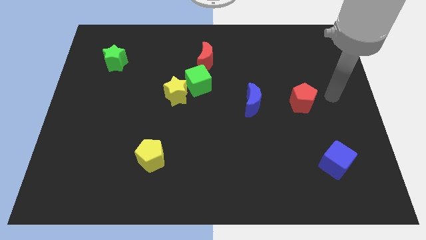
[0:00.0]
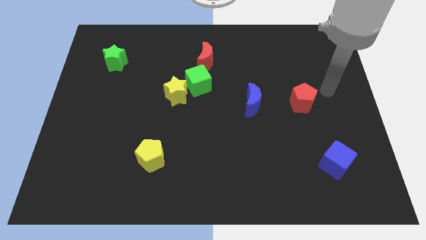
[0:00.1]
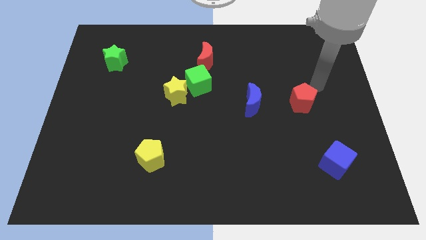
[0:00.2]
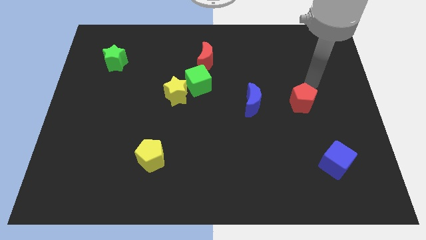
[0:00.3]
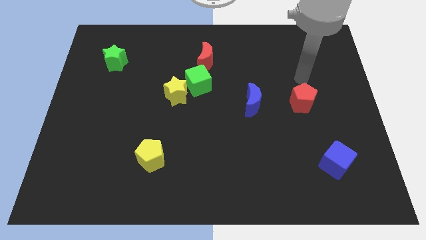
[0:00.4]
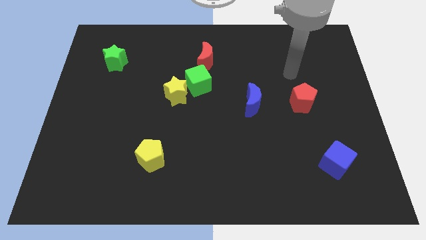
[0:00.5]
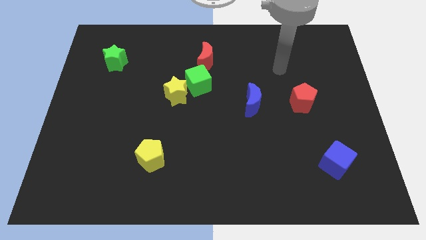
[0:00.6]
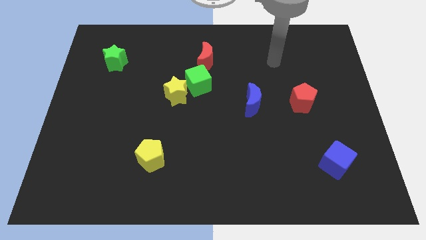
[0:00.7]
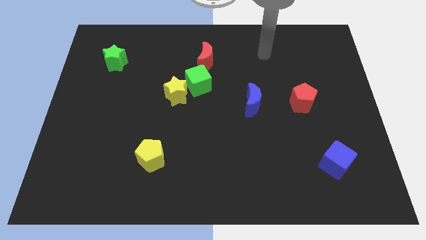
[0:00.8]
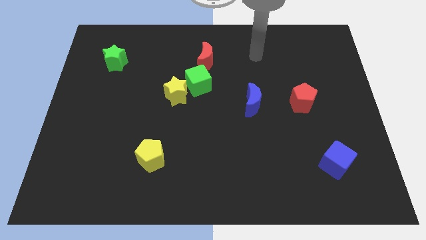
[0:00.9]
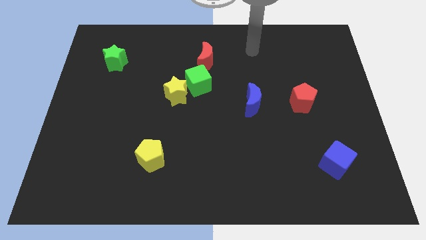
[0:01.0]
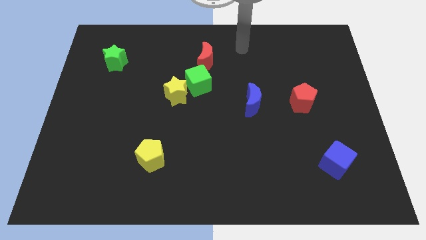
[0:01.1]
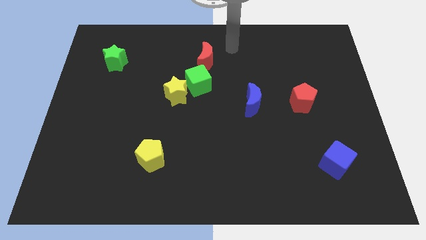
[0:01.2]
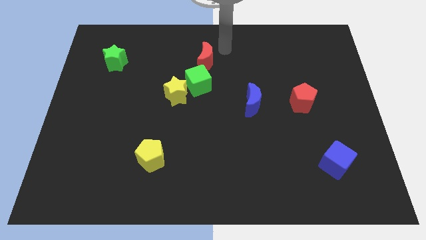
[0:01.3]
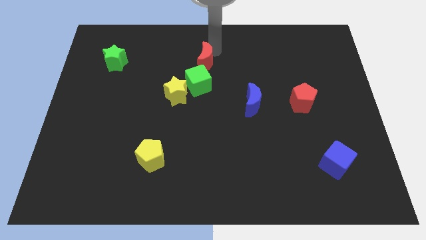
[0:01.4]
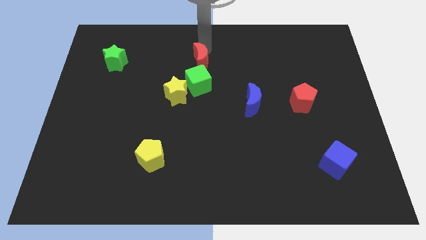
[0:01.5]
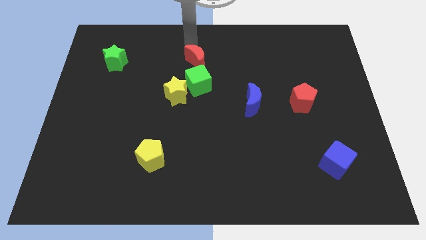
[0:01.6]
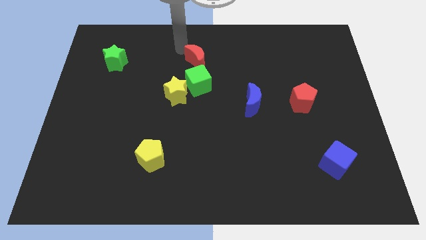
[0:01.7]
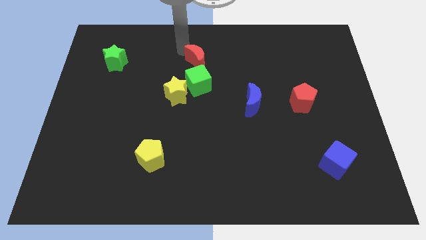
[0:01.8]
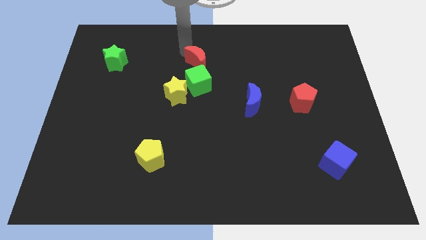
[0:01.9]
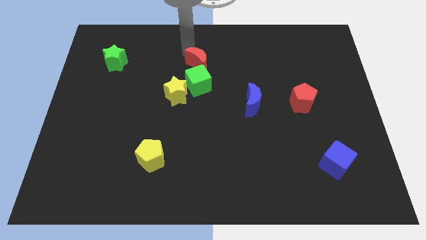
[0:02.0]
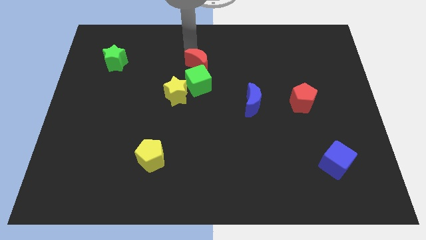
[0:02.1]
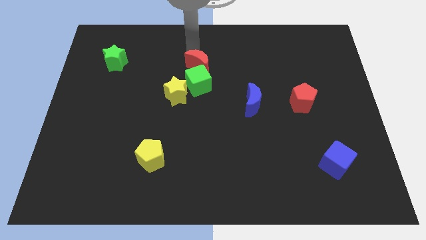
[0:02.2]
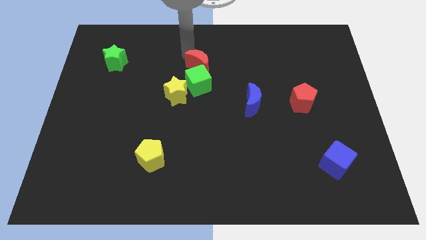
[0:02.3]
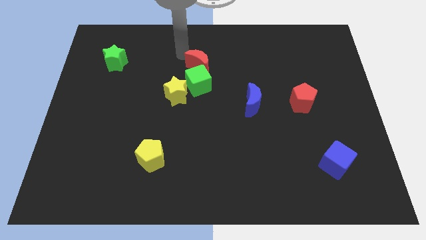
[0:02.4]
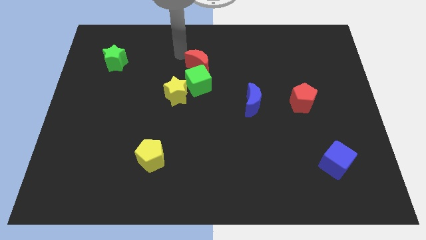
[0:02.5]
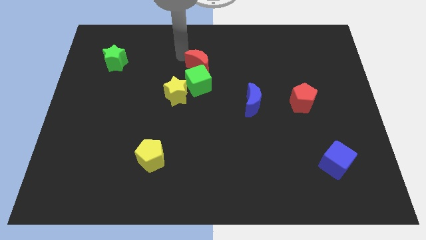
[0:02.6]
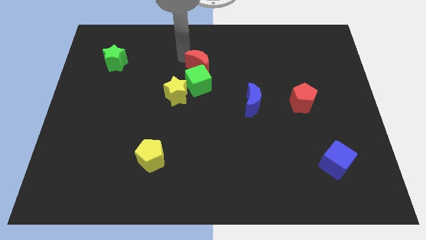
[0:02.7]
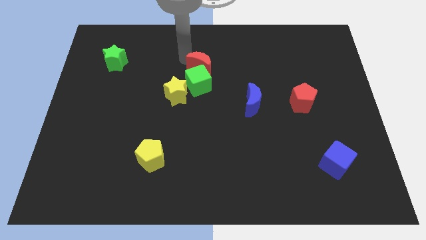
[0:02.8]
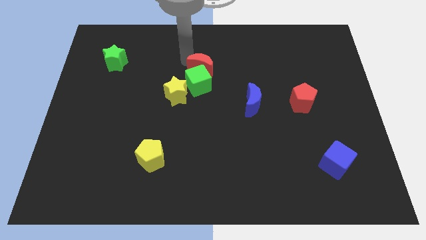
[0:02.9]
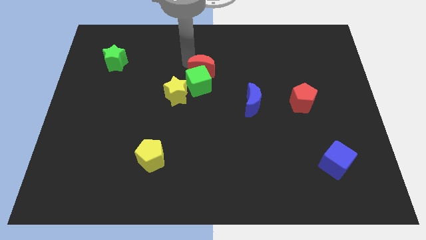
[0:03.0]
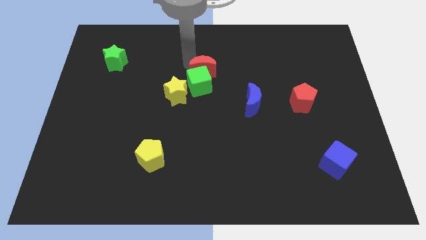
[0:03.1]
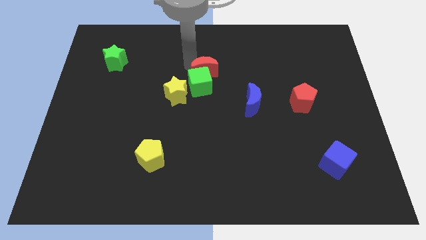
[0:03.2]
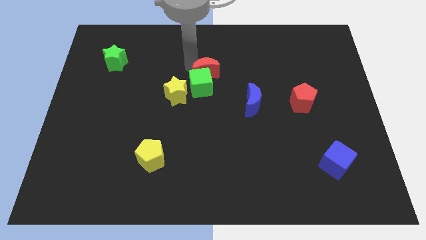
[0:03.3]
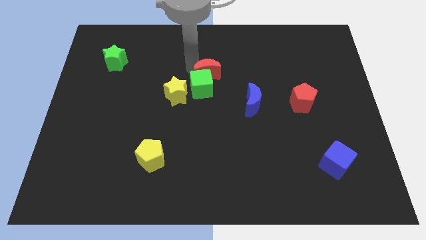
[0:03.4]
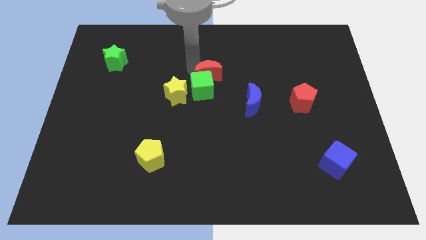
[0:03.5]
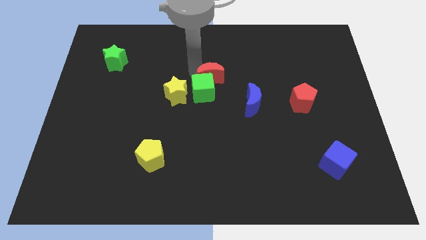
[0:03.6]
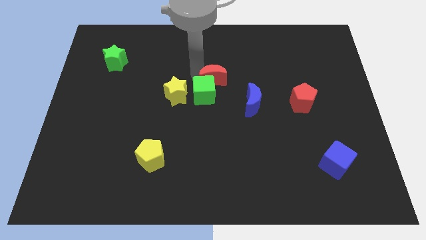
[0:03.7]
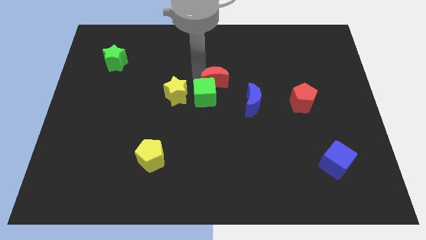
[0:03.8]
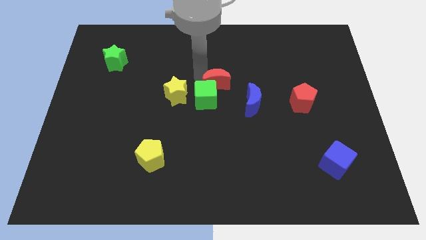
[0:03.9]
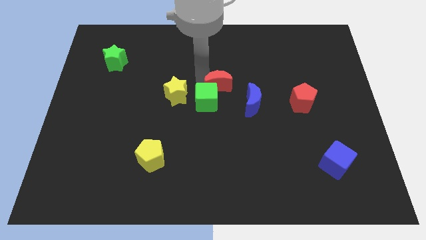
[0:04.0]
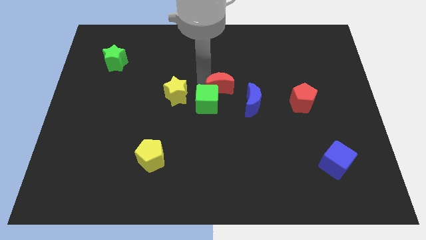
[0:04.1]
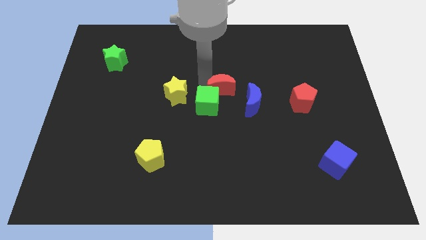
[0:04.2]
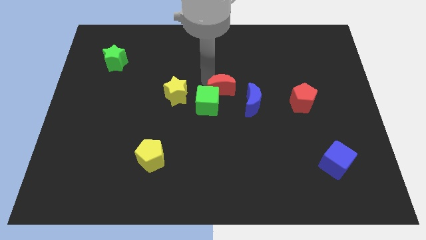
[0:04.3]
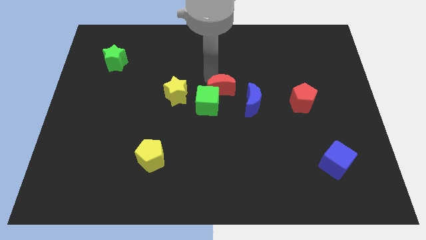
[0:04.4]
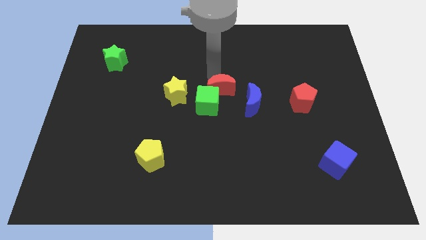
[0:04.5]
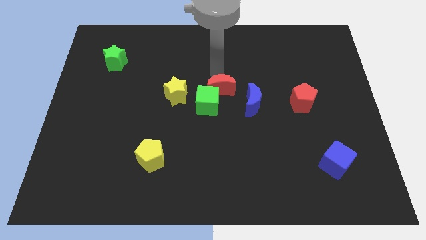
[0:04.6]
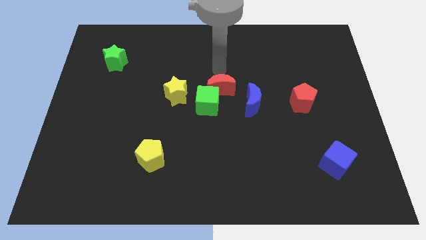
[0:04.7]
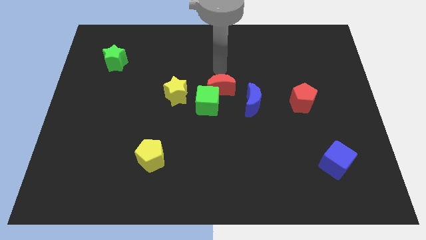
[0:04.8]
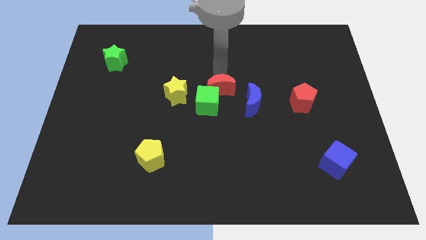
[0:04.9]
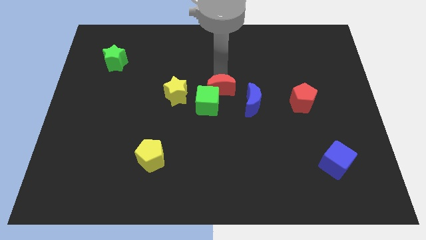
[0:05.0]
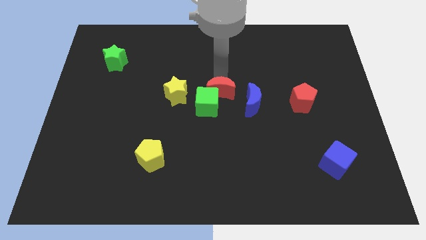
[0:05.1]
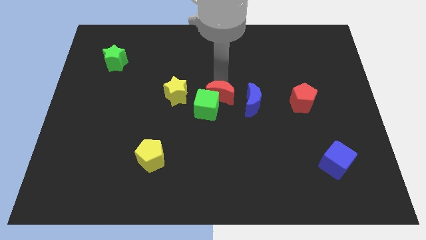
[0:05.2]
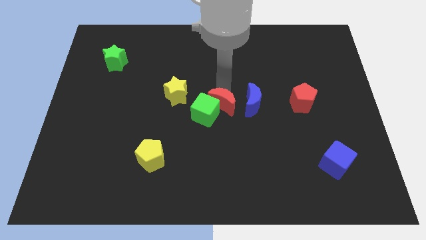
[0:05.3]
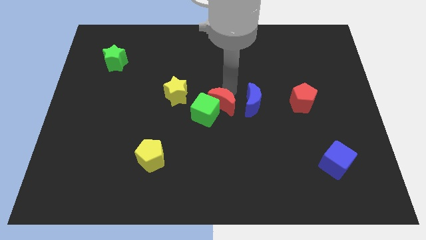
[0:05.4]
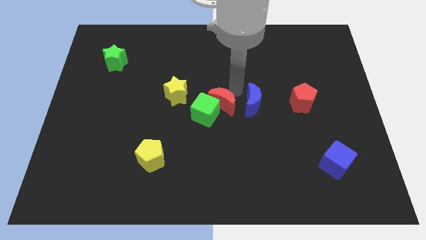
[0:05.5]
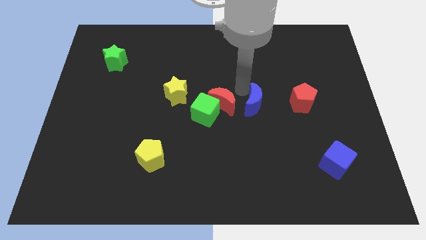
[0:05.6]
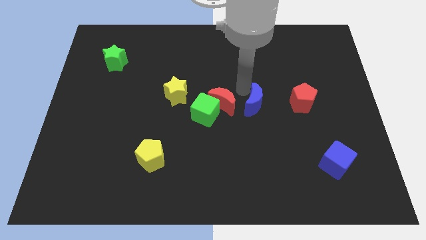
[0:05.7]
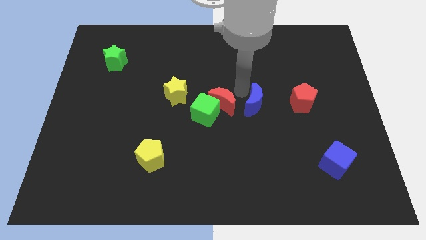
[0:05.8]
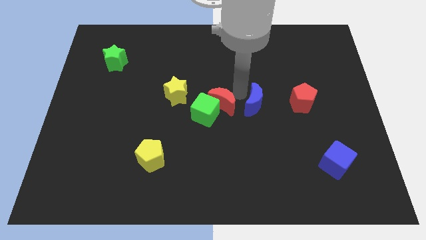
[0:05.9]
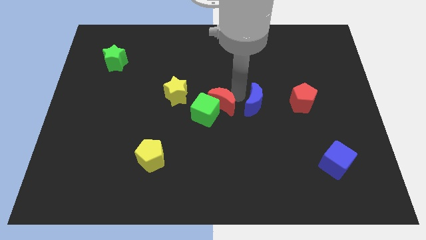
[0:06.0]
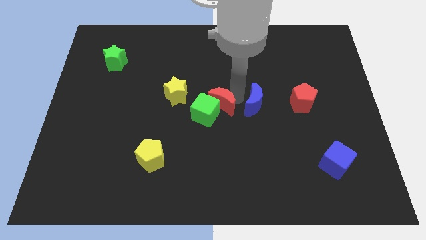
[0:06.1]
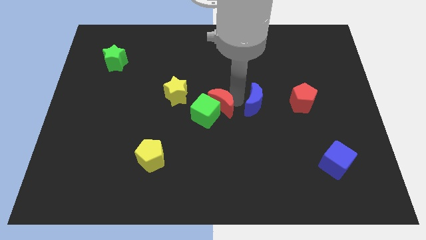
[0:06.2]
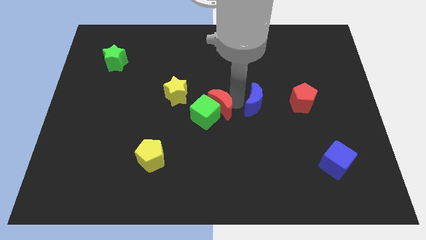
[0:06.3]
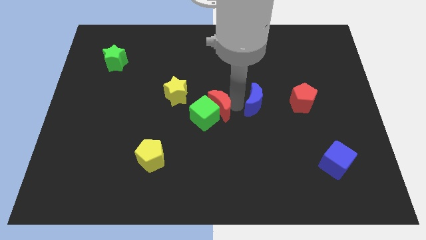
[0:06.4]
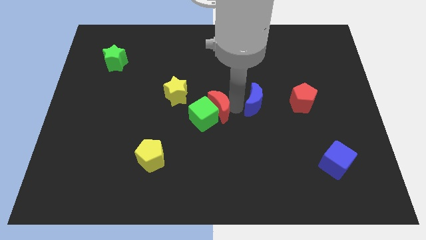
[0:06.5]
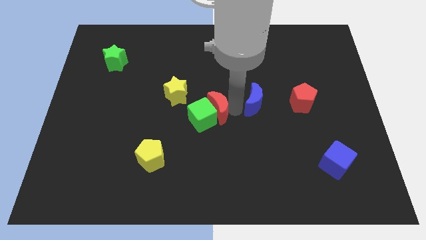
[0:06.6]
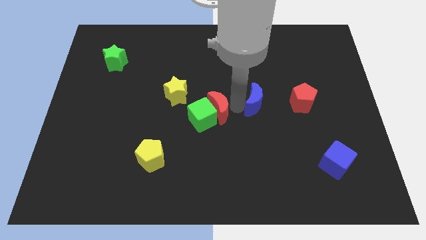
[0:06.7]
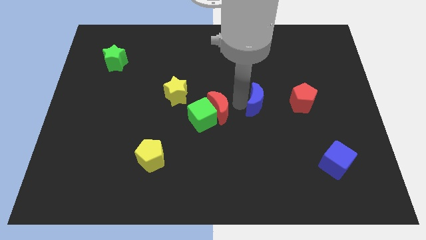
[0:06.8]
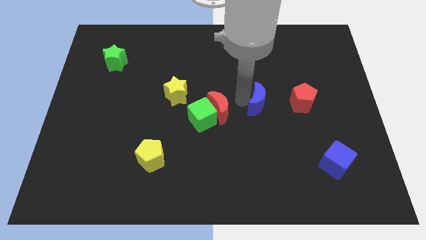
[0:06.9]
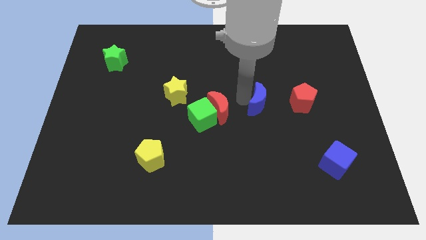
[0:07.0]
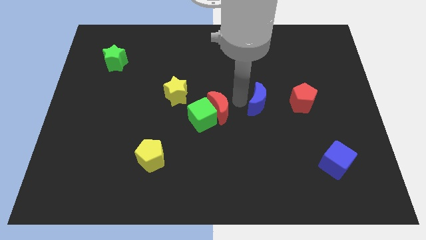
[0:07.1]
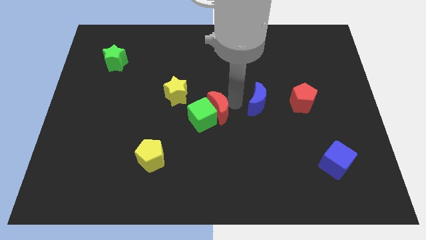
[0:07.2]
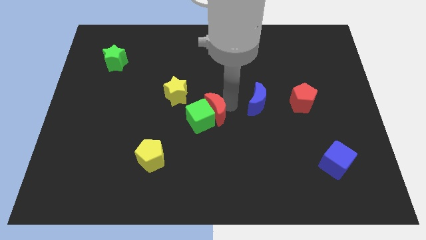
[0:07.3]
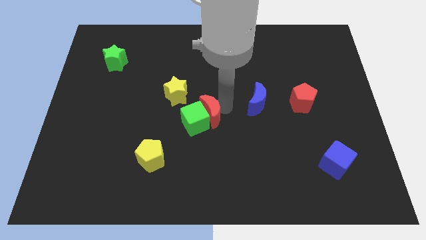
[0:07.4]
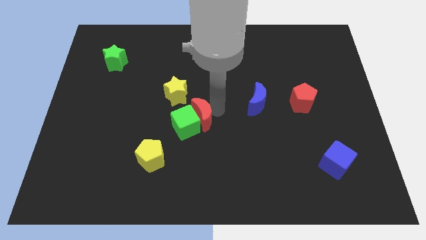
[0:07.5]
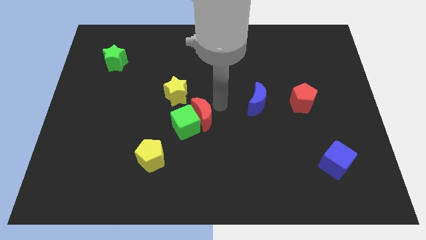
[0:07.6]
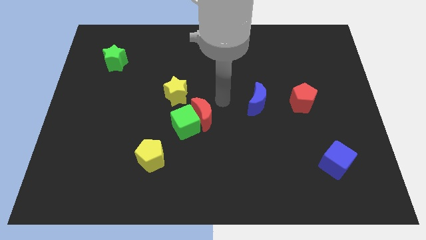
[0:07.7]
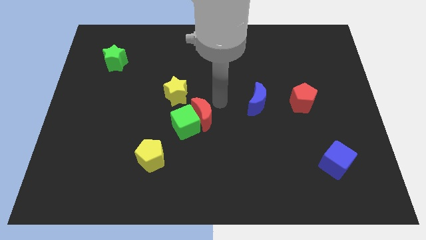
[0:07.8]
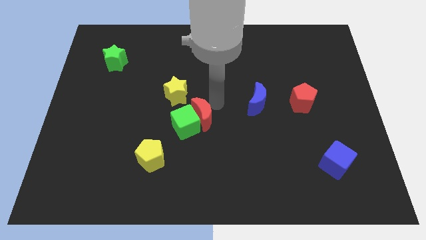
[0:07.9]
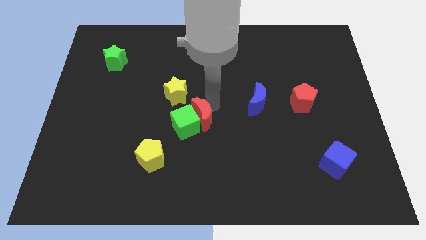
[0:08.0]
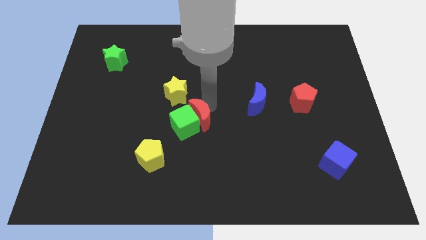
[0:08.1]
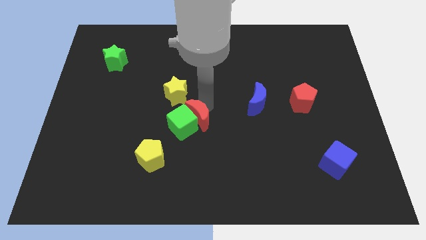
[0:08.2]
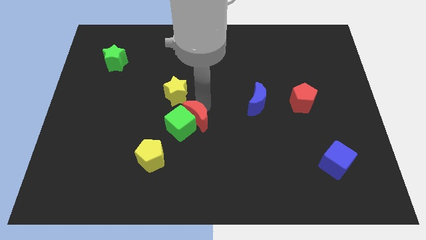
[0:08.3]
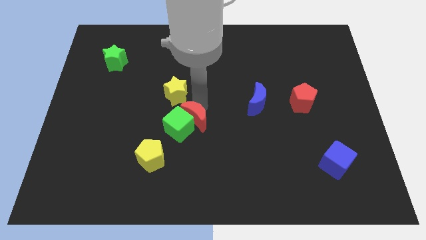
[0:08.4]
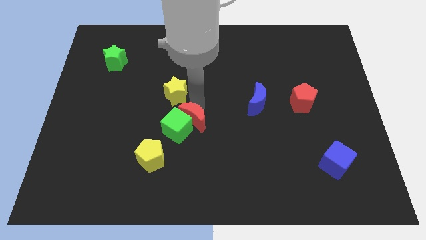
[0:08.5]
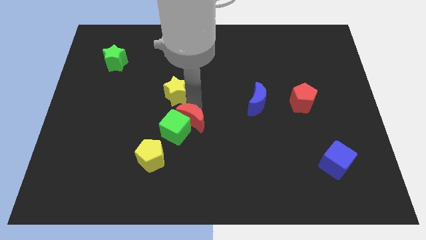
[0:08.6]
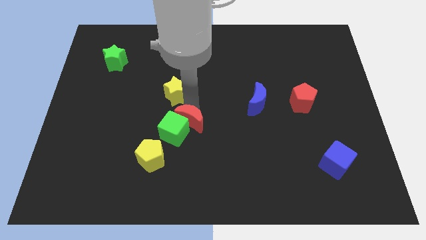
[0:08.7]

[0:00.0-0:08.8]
slide the red moon diagonally up and to the right of the yellow pentagon
